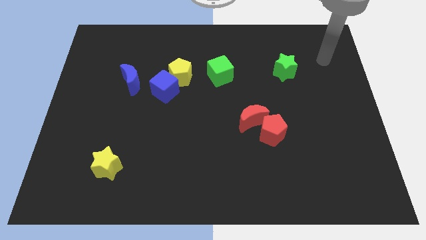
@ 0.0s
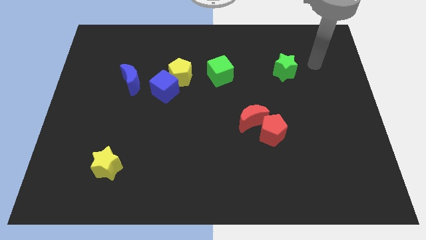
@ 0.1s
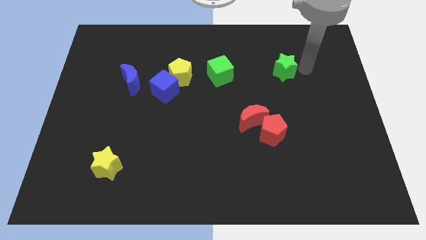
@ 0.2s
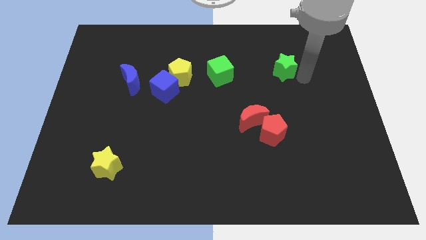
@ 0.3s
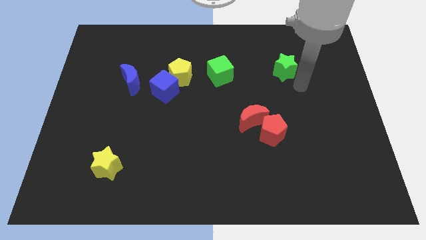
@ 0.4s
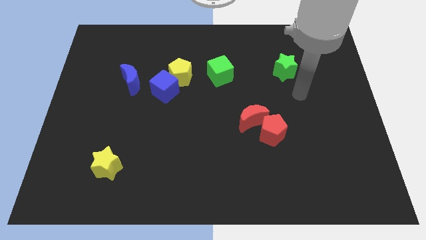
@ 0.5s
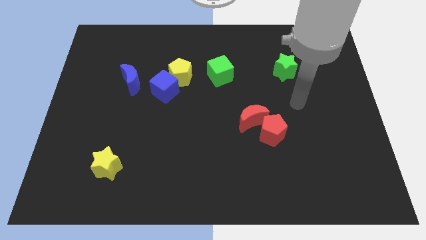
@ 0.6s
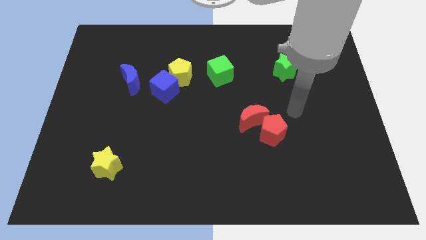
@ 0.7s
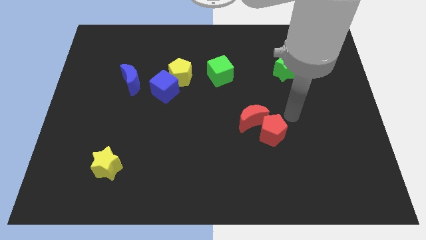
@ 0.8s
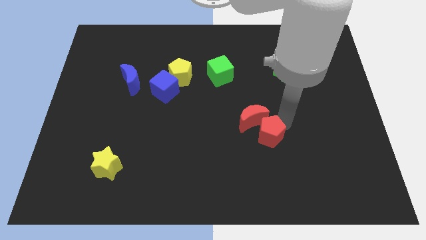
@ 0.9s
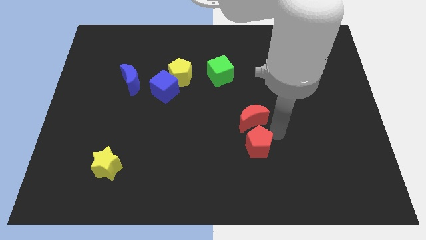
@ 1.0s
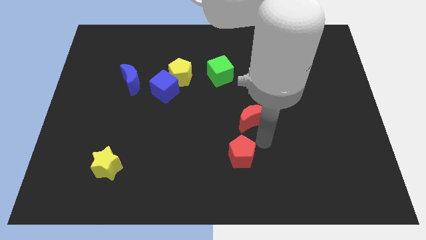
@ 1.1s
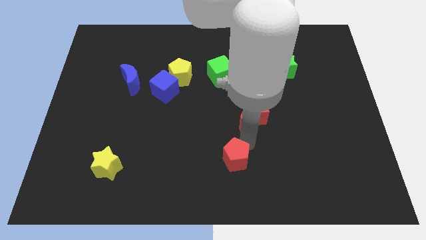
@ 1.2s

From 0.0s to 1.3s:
separate the red moon from the red pentagon

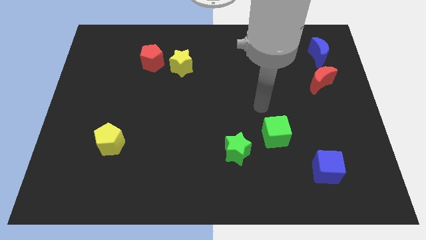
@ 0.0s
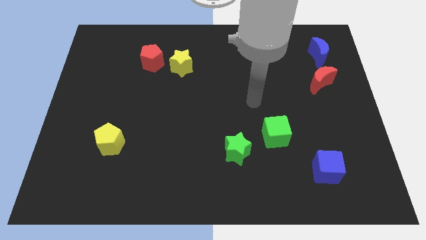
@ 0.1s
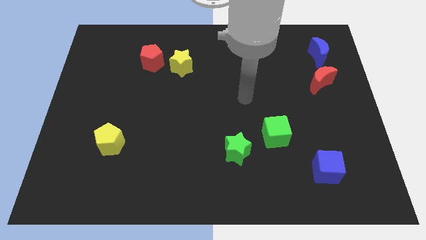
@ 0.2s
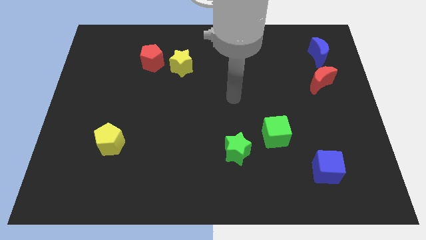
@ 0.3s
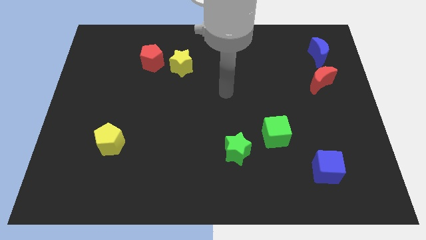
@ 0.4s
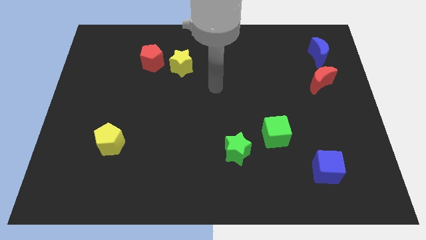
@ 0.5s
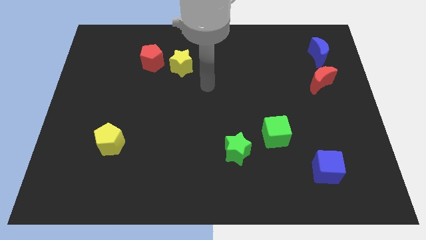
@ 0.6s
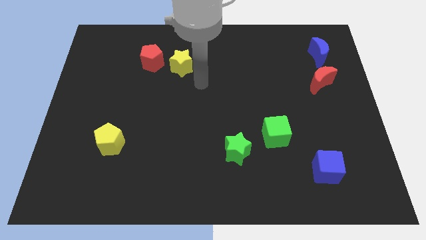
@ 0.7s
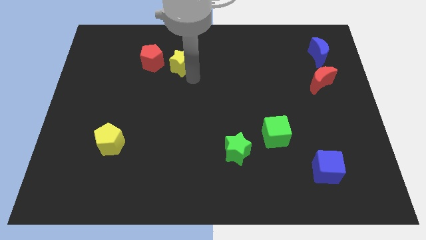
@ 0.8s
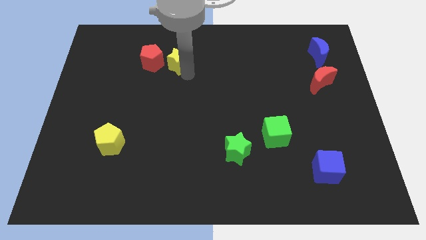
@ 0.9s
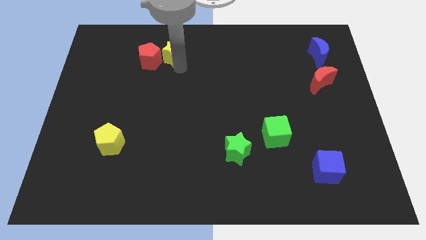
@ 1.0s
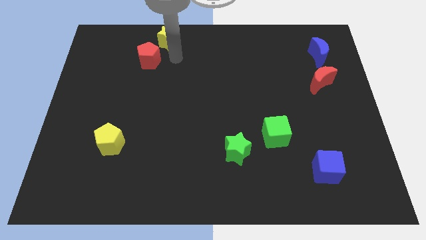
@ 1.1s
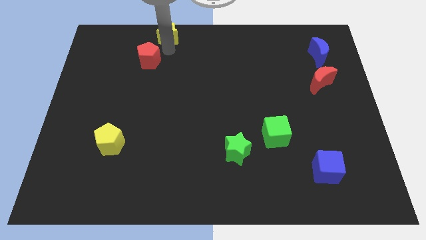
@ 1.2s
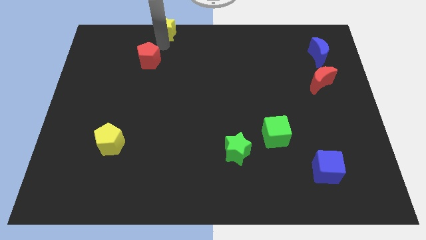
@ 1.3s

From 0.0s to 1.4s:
pull the red pentagon apart from the yellow star

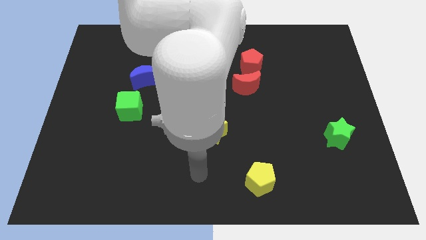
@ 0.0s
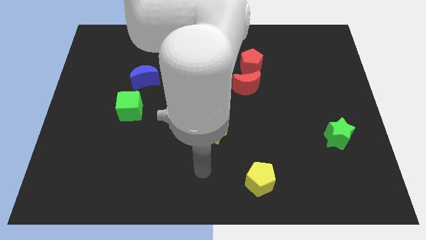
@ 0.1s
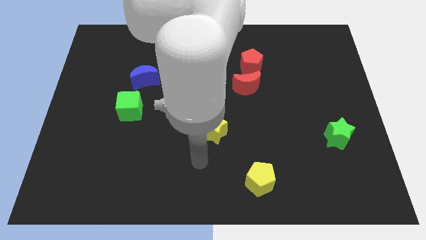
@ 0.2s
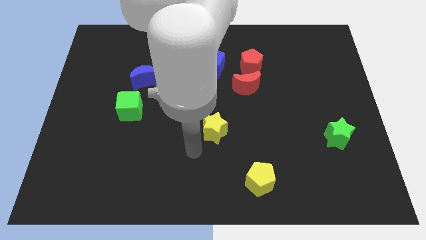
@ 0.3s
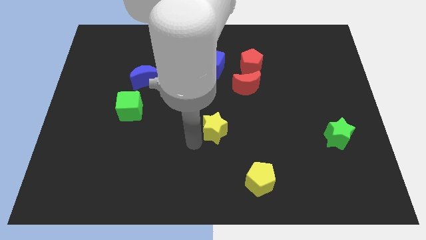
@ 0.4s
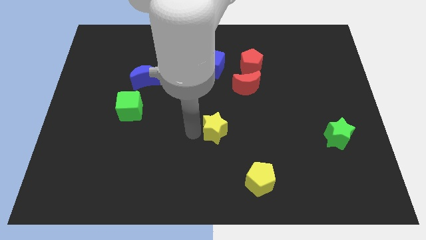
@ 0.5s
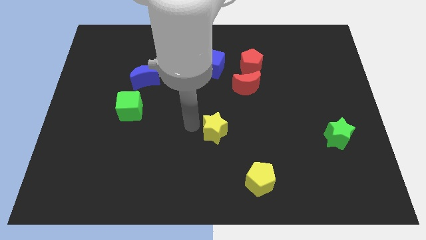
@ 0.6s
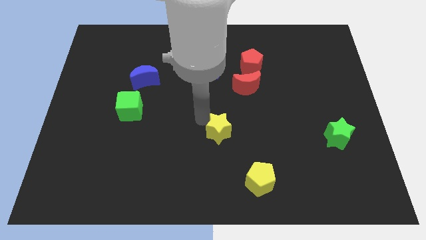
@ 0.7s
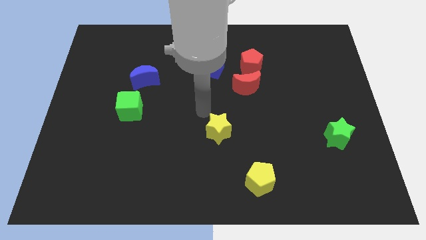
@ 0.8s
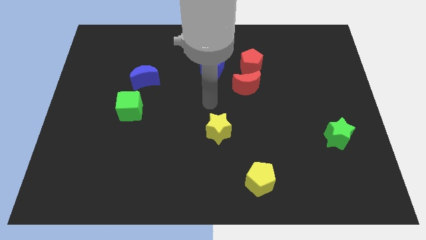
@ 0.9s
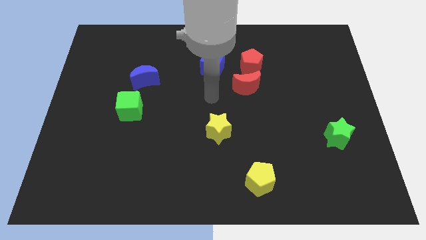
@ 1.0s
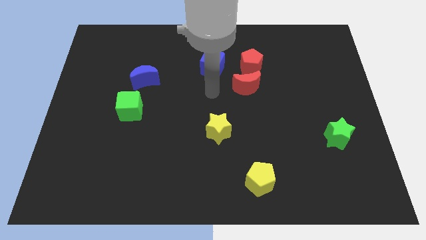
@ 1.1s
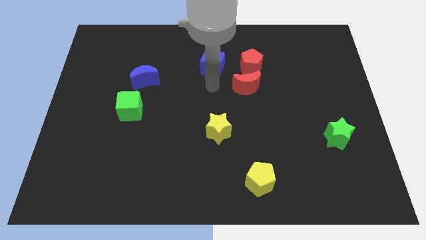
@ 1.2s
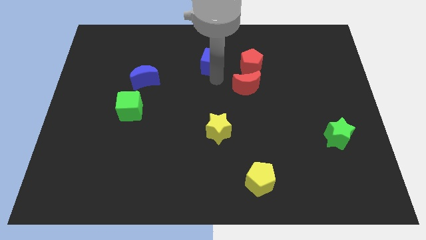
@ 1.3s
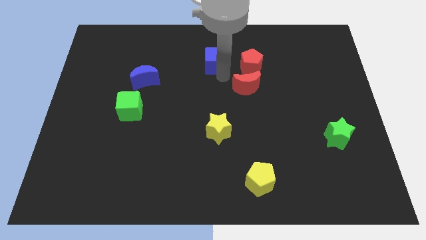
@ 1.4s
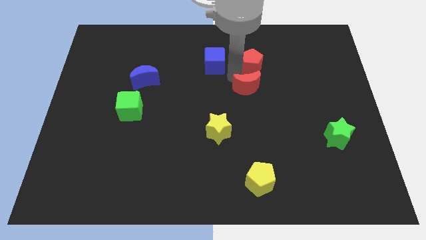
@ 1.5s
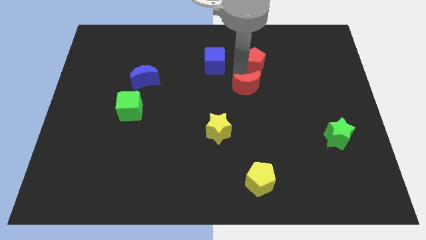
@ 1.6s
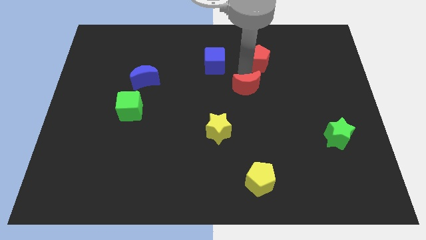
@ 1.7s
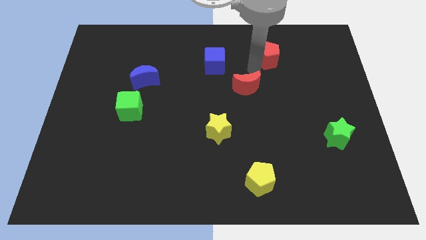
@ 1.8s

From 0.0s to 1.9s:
move the red moon away from the red pentagon

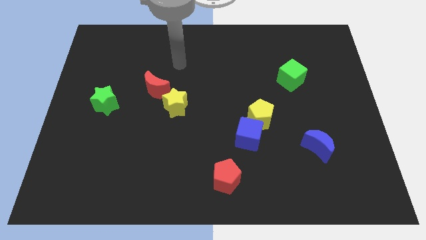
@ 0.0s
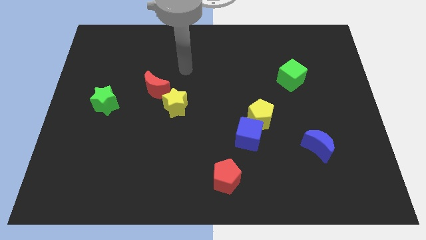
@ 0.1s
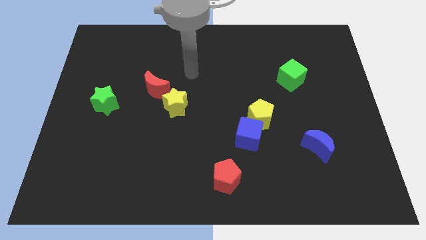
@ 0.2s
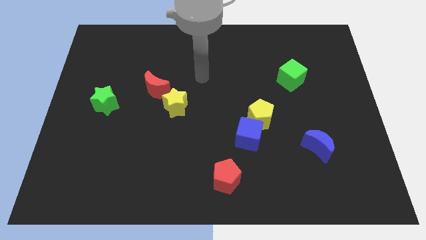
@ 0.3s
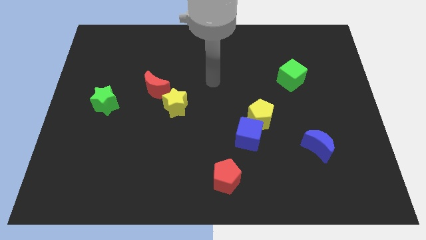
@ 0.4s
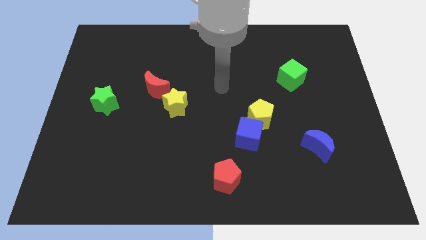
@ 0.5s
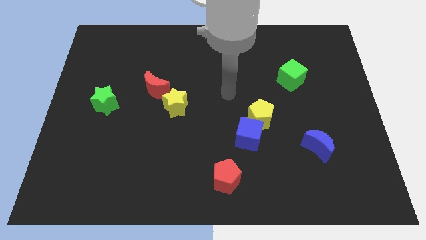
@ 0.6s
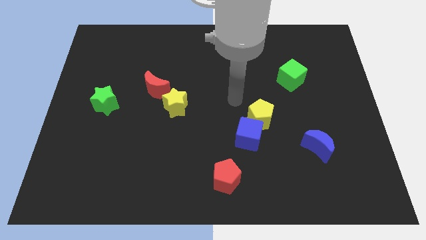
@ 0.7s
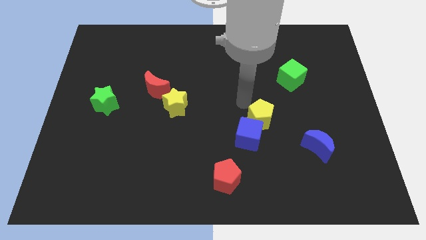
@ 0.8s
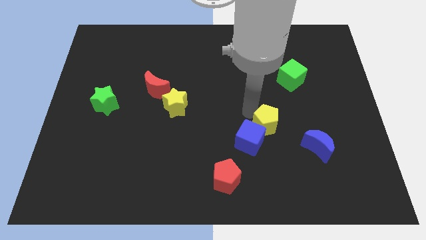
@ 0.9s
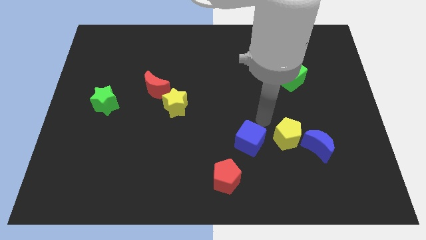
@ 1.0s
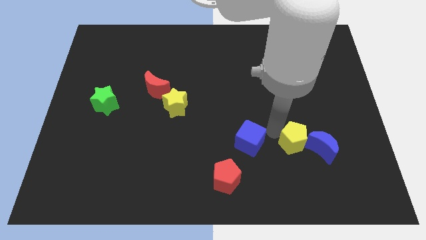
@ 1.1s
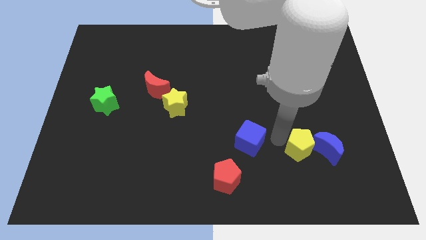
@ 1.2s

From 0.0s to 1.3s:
pull the blue cube apart from the yellow pentagon

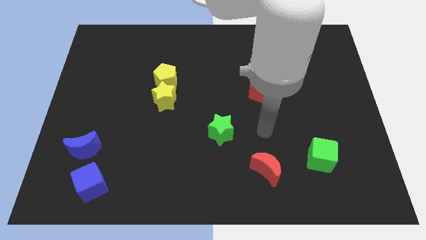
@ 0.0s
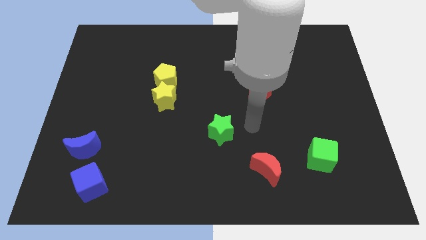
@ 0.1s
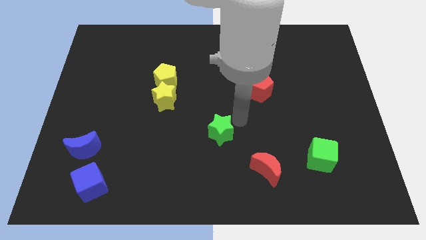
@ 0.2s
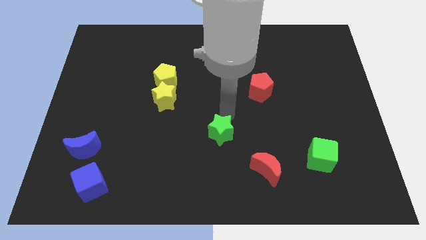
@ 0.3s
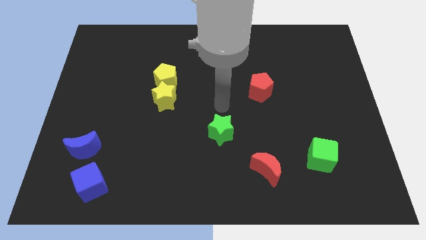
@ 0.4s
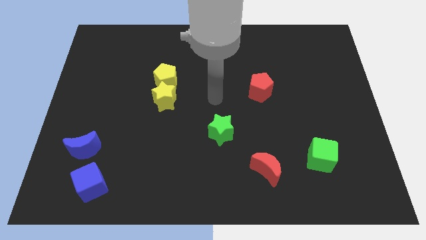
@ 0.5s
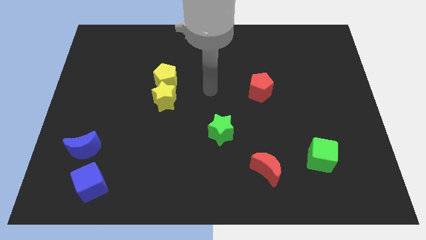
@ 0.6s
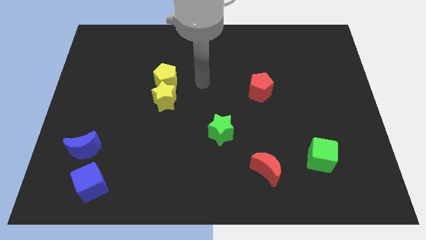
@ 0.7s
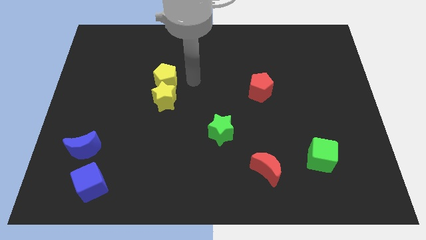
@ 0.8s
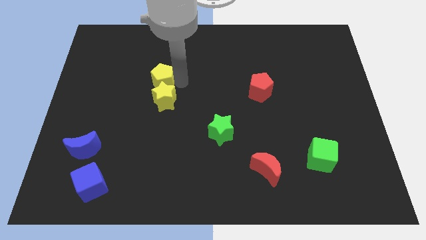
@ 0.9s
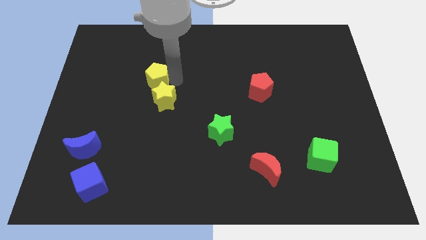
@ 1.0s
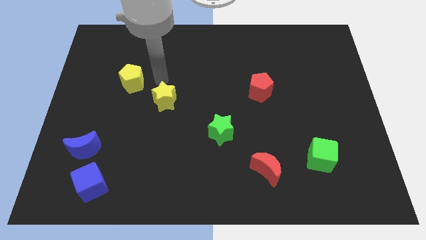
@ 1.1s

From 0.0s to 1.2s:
move the yellow star away from the yellow pentagon

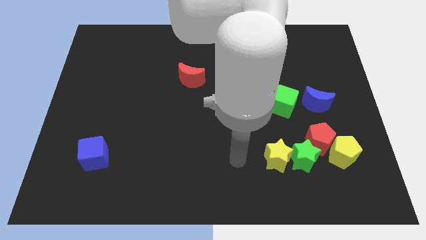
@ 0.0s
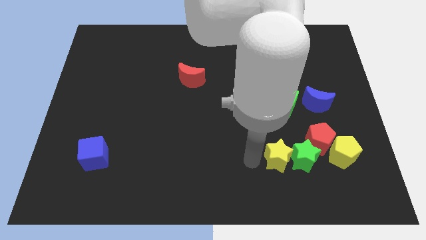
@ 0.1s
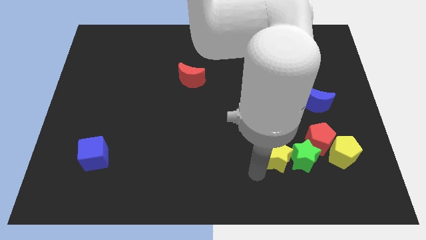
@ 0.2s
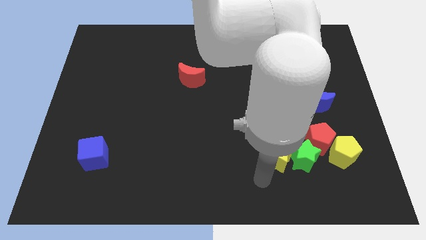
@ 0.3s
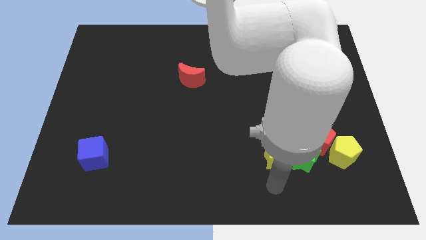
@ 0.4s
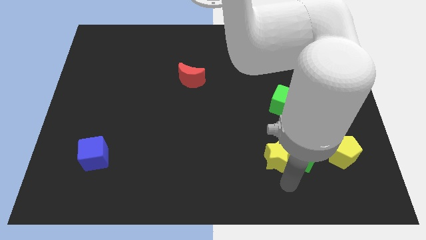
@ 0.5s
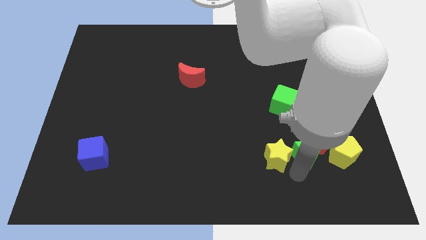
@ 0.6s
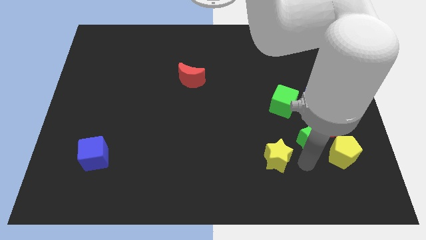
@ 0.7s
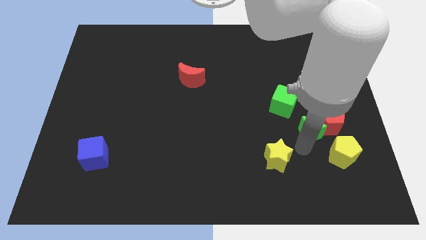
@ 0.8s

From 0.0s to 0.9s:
separate the yellow star from the green star

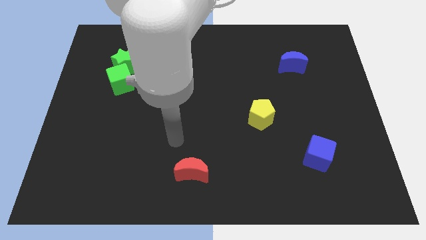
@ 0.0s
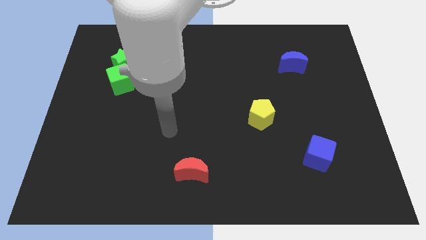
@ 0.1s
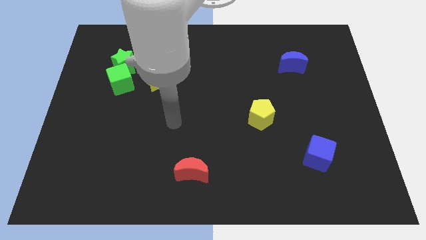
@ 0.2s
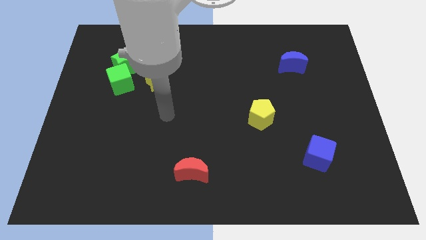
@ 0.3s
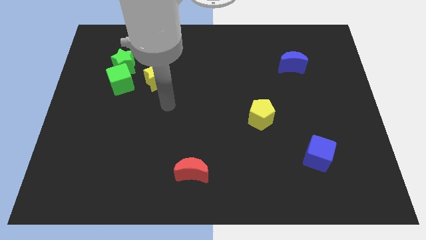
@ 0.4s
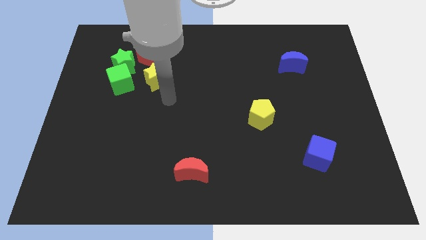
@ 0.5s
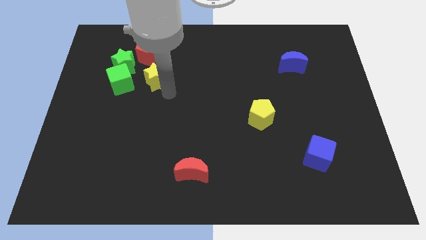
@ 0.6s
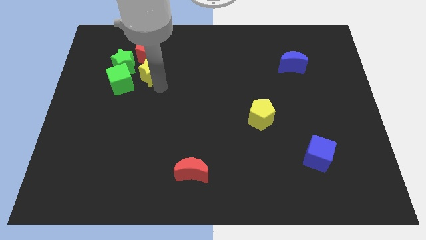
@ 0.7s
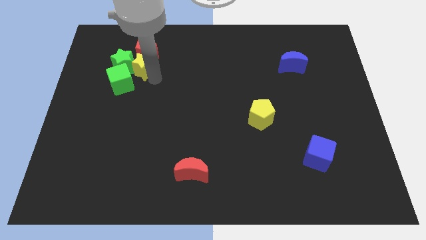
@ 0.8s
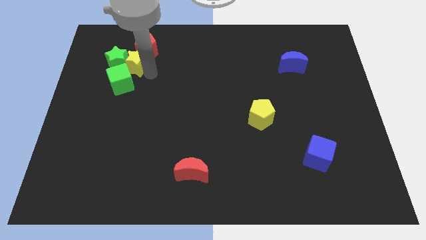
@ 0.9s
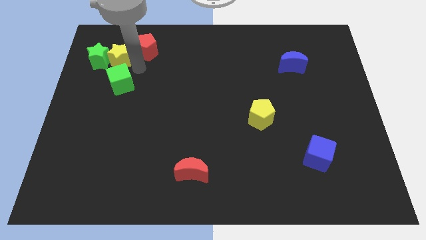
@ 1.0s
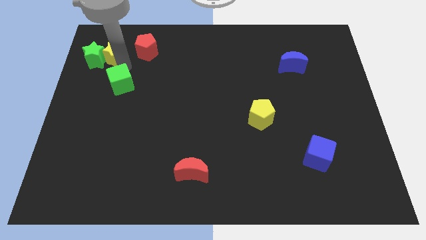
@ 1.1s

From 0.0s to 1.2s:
move the green cube away from the green star and yellow star
